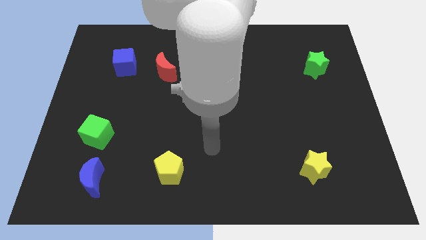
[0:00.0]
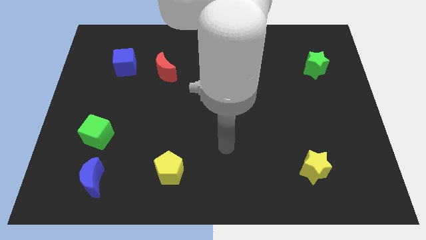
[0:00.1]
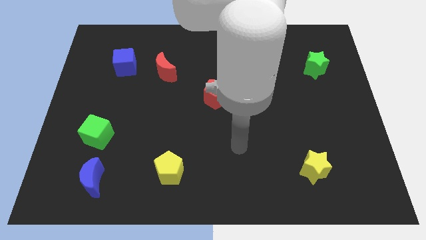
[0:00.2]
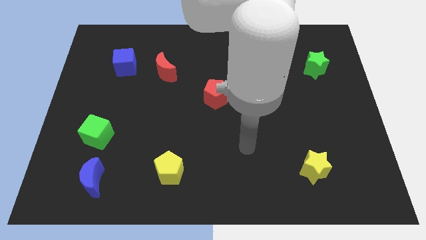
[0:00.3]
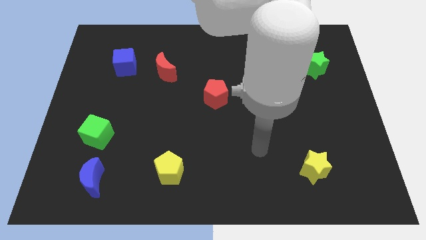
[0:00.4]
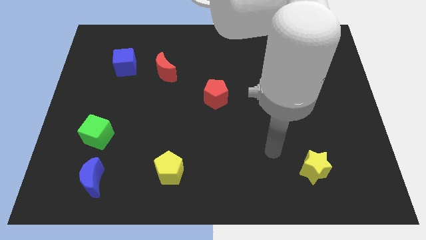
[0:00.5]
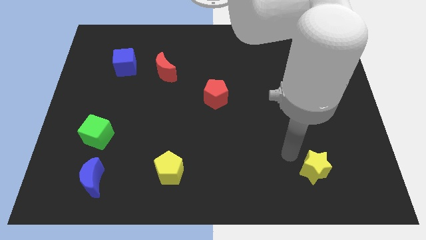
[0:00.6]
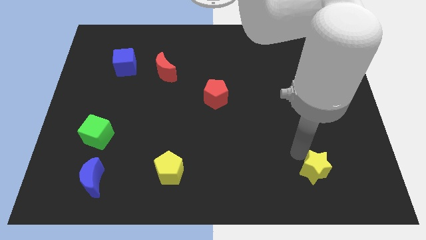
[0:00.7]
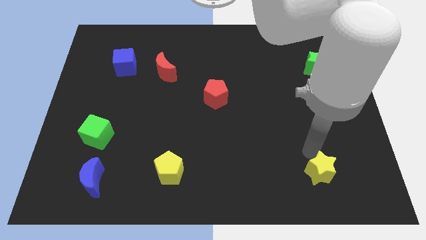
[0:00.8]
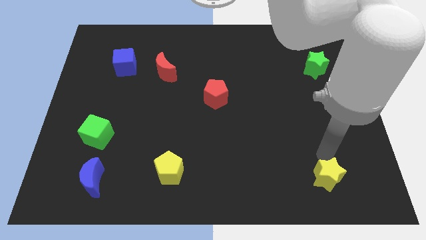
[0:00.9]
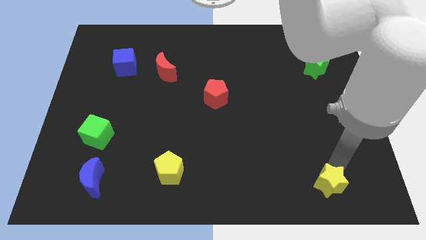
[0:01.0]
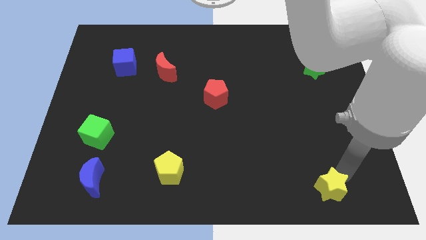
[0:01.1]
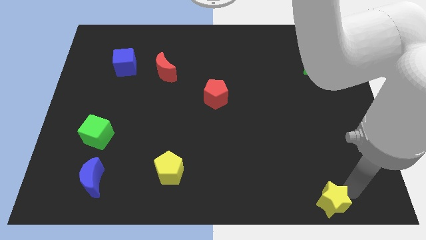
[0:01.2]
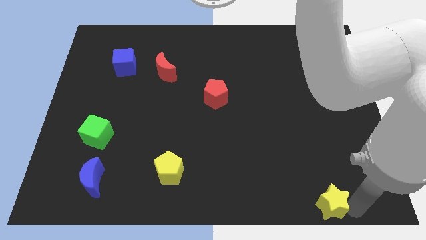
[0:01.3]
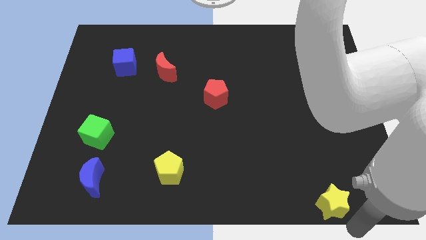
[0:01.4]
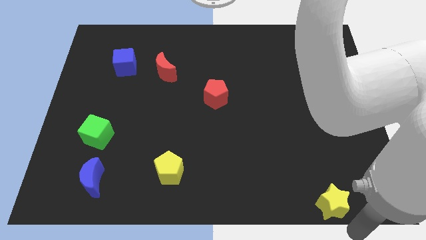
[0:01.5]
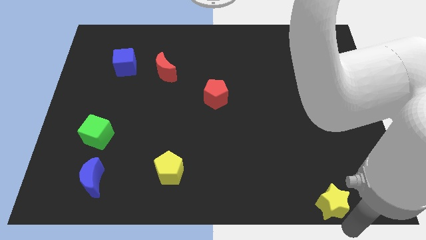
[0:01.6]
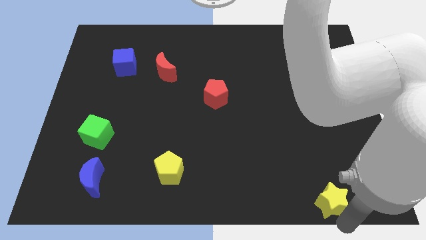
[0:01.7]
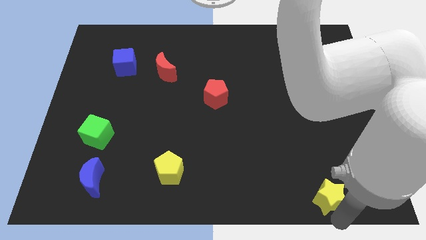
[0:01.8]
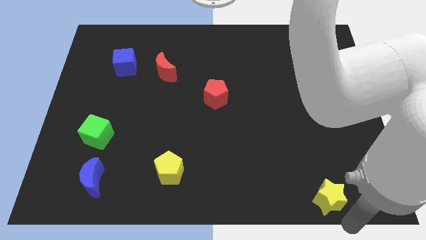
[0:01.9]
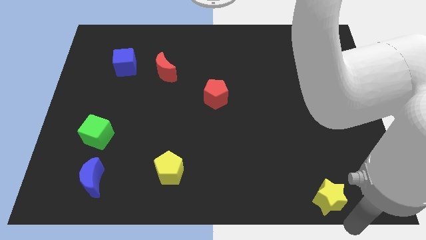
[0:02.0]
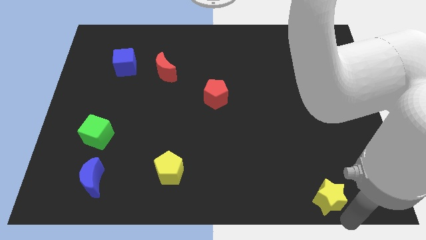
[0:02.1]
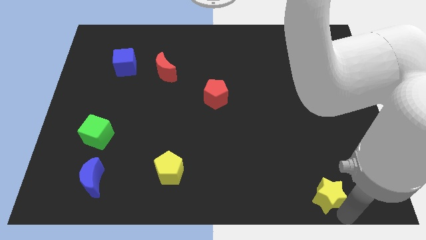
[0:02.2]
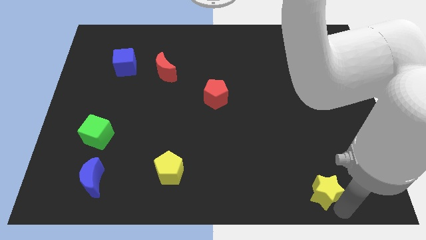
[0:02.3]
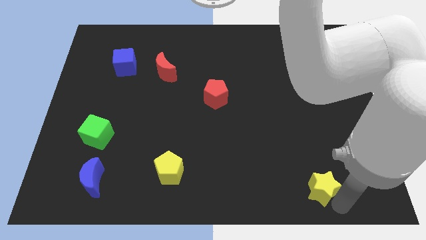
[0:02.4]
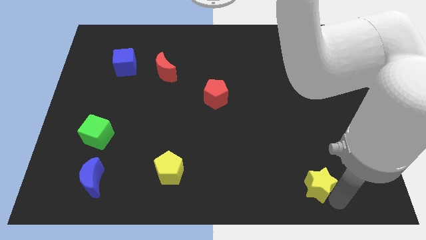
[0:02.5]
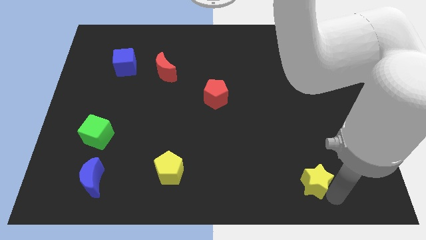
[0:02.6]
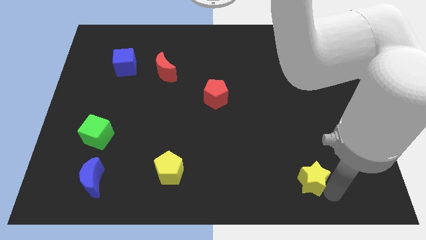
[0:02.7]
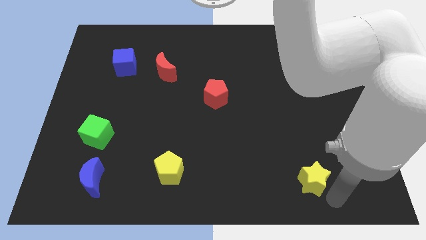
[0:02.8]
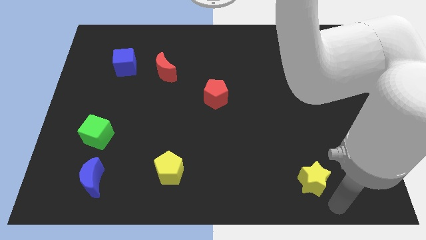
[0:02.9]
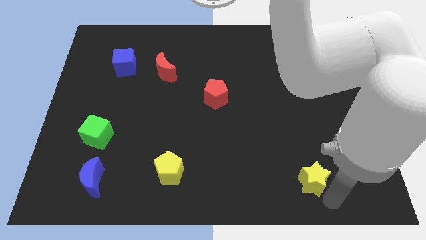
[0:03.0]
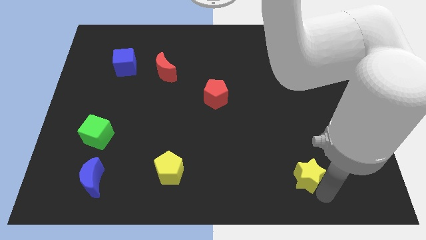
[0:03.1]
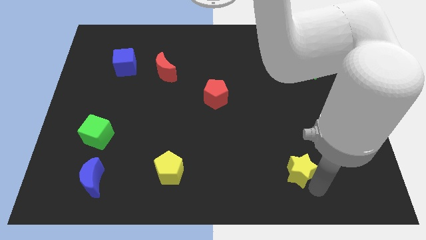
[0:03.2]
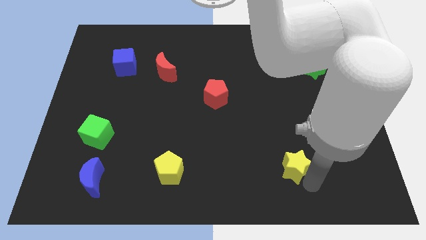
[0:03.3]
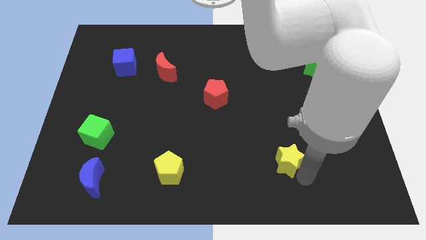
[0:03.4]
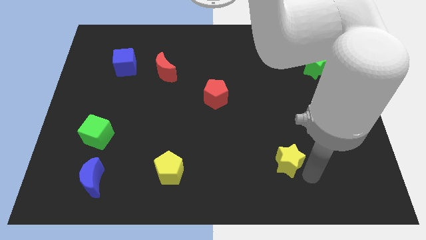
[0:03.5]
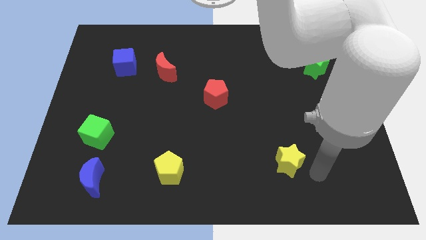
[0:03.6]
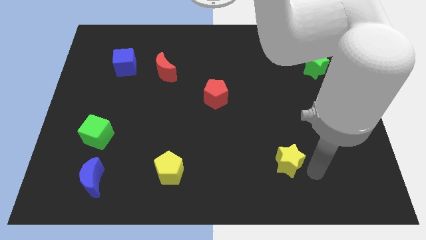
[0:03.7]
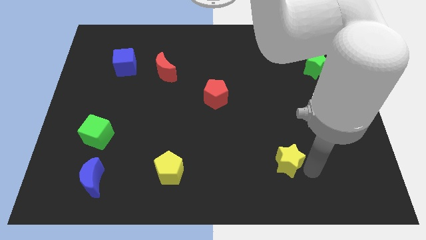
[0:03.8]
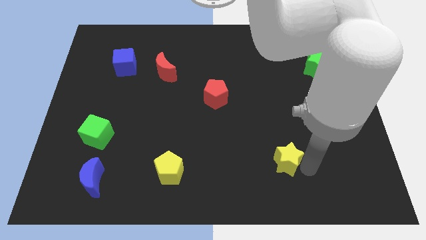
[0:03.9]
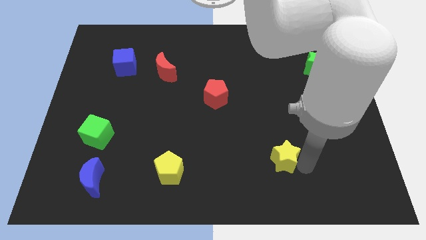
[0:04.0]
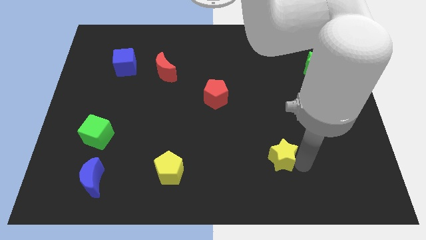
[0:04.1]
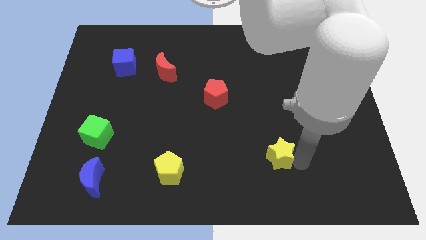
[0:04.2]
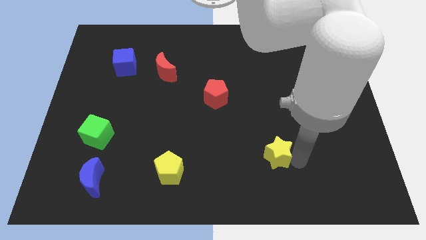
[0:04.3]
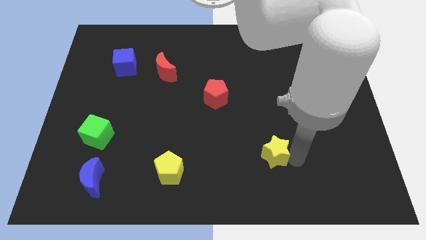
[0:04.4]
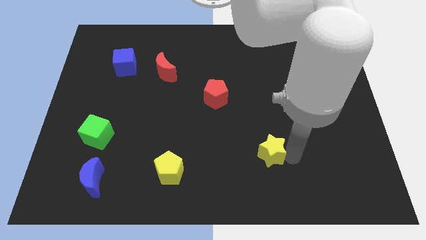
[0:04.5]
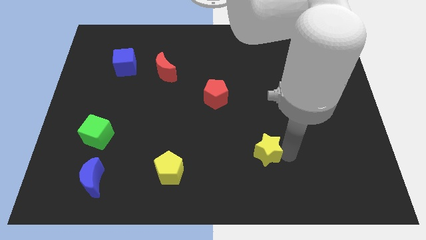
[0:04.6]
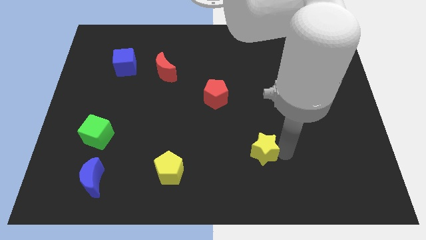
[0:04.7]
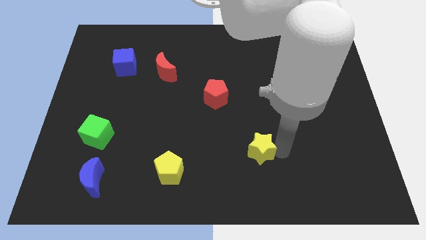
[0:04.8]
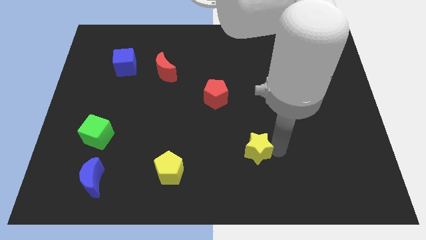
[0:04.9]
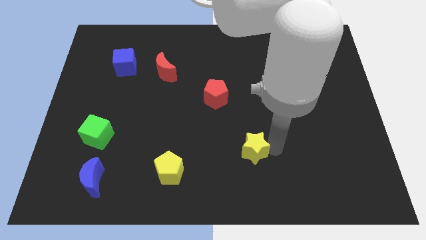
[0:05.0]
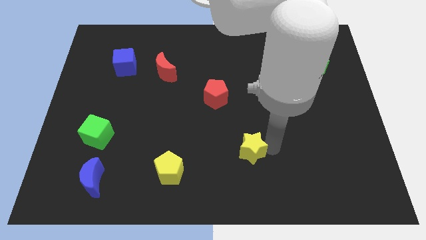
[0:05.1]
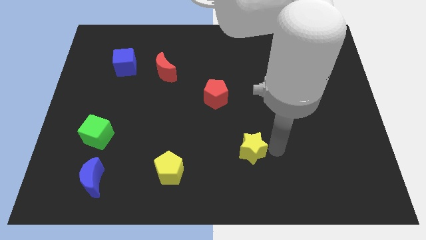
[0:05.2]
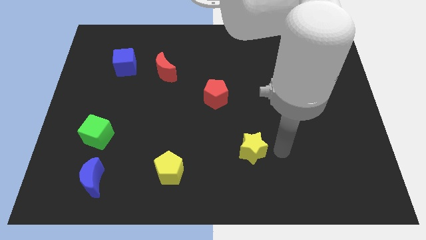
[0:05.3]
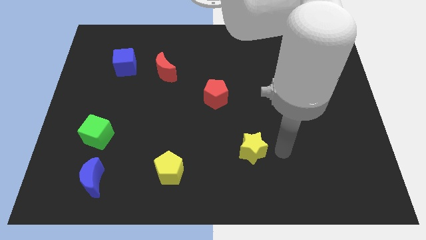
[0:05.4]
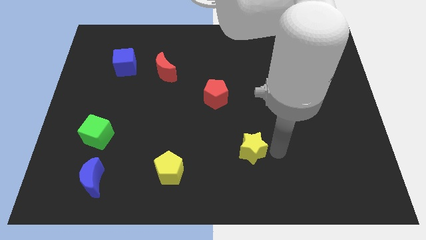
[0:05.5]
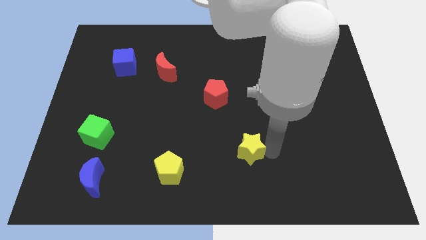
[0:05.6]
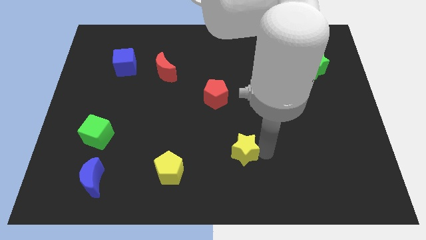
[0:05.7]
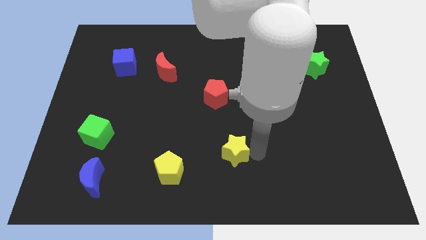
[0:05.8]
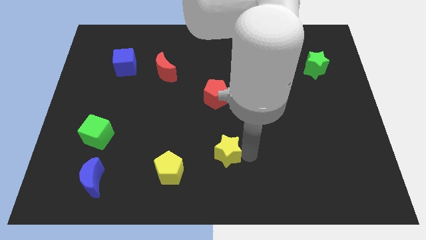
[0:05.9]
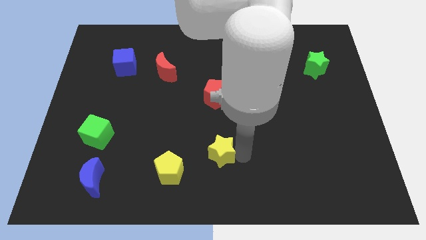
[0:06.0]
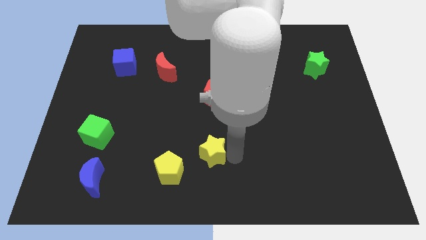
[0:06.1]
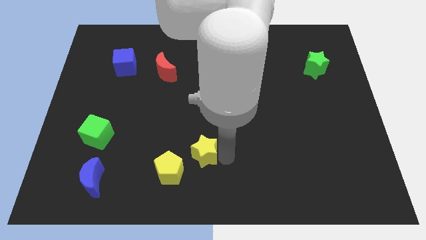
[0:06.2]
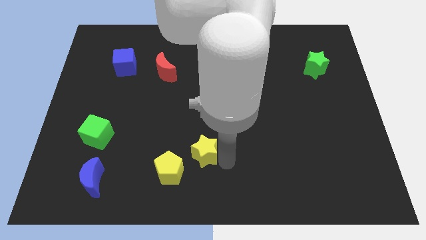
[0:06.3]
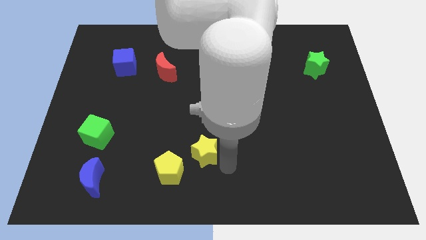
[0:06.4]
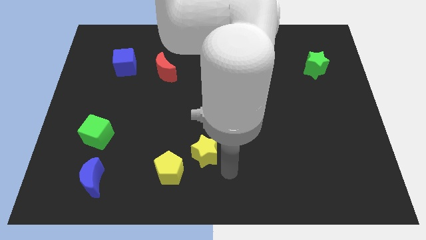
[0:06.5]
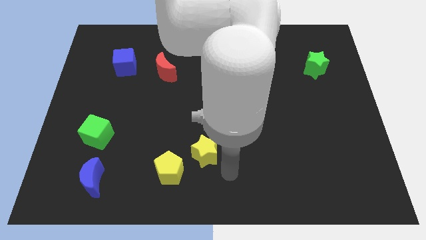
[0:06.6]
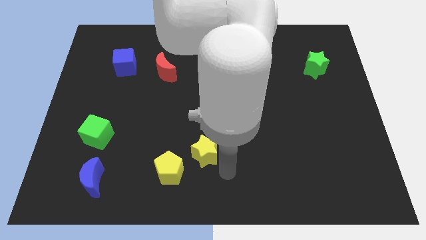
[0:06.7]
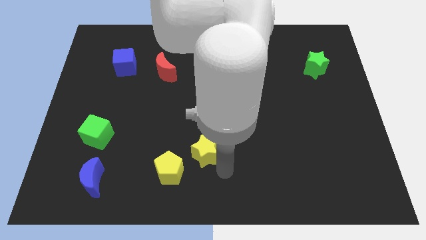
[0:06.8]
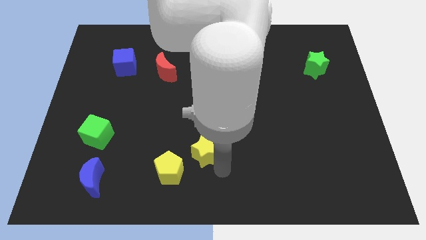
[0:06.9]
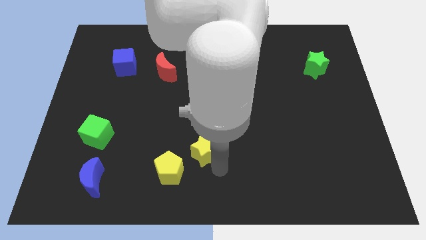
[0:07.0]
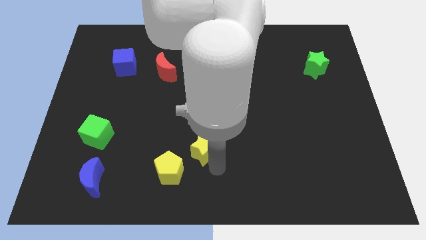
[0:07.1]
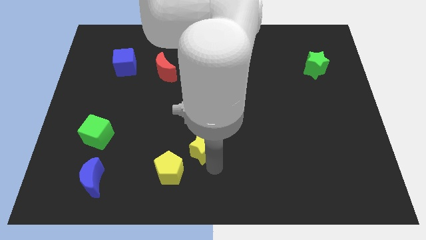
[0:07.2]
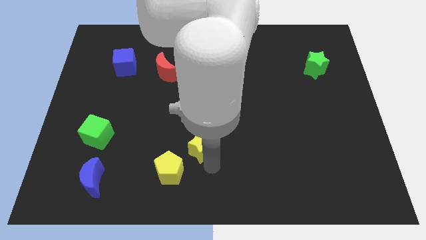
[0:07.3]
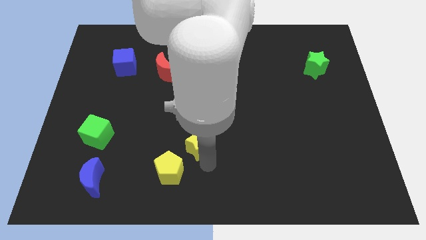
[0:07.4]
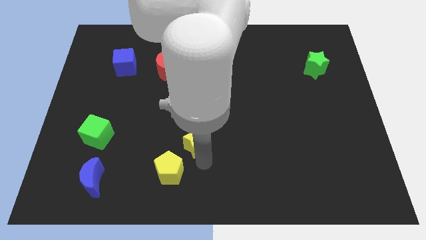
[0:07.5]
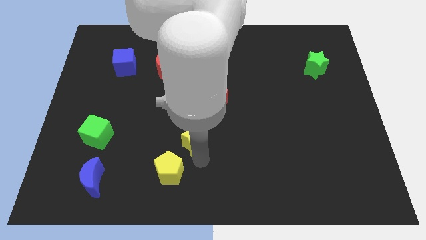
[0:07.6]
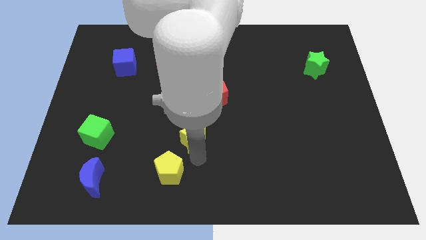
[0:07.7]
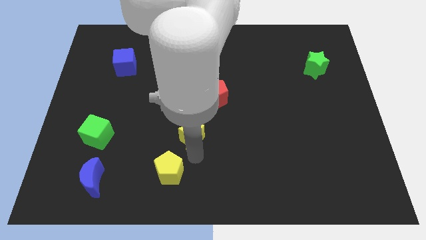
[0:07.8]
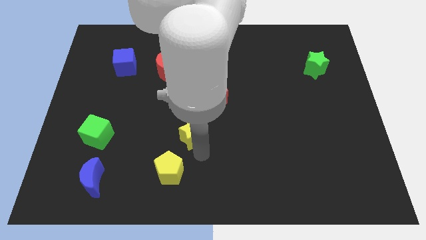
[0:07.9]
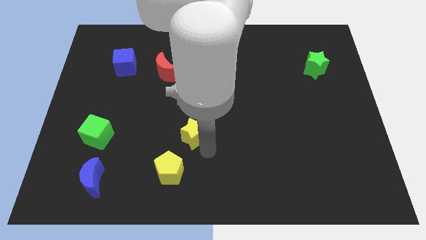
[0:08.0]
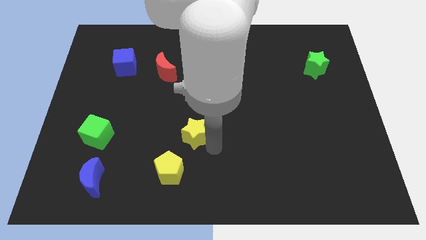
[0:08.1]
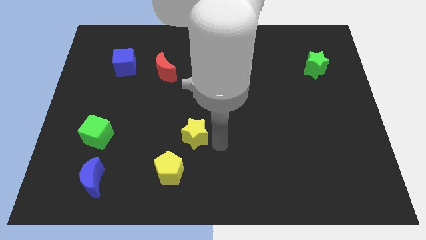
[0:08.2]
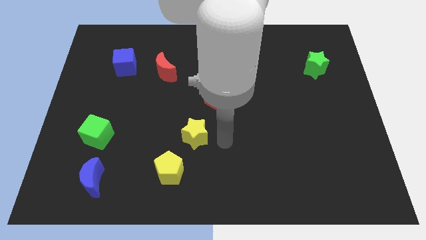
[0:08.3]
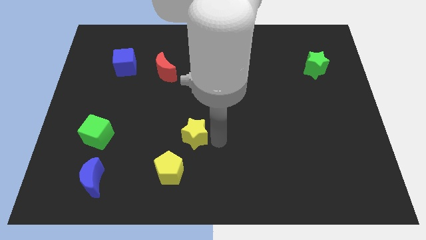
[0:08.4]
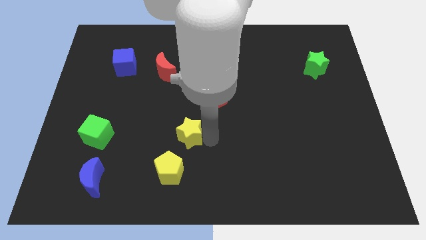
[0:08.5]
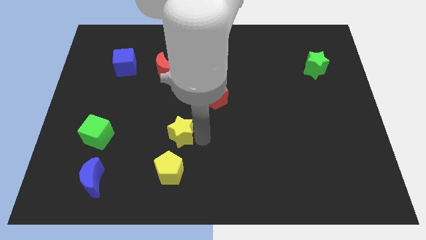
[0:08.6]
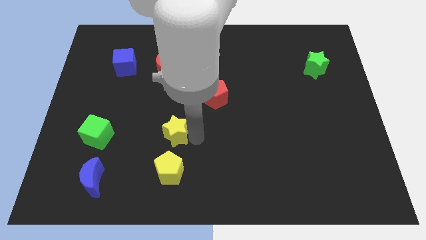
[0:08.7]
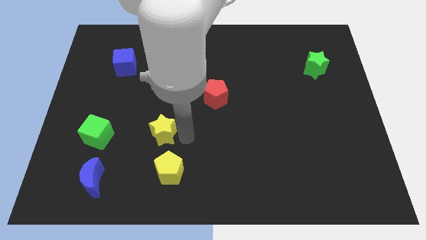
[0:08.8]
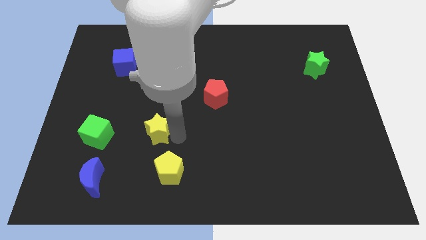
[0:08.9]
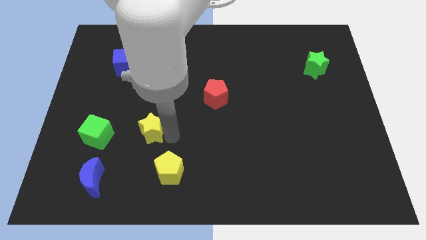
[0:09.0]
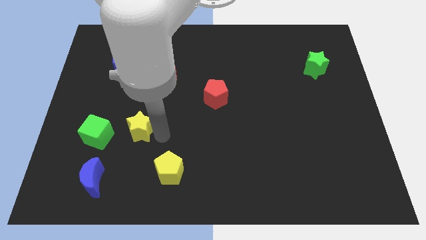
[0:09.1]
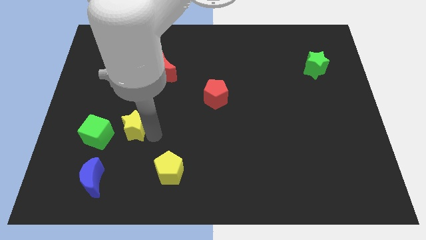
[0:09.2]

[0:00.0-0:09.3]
put the yellow star diagonally up and to the right of the green cube
